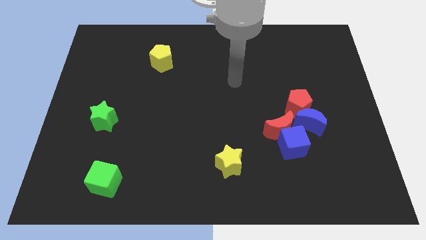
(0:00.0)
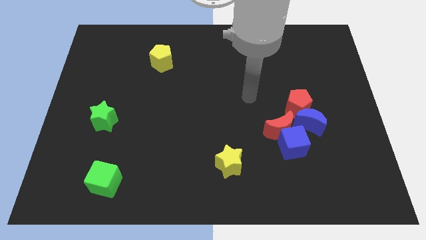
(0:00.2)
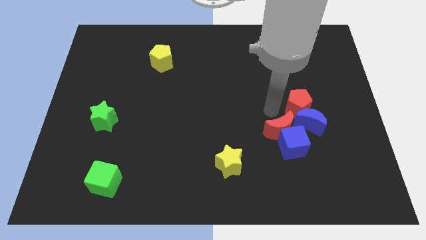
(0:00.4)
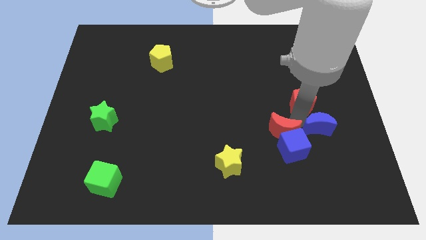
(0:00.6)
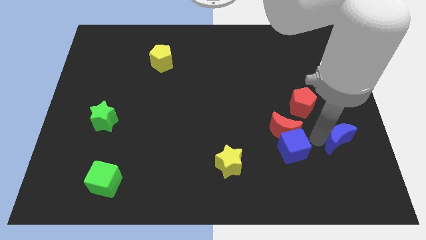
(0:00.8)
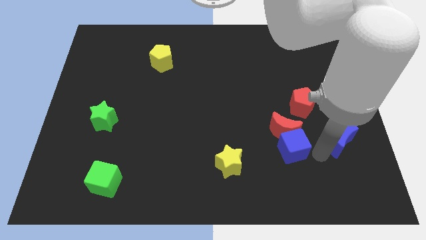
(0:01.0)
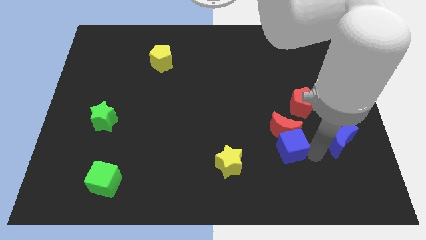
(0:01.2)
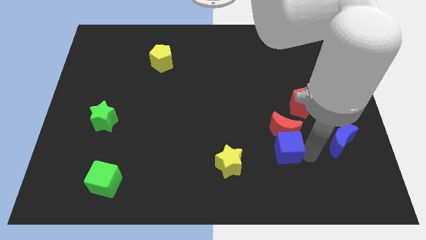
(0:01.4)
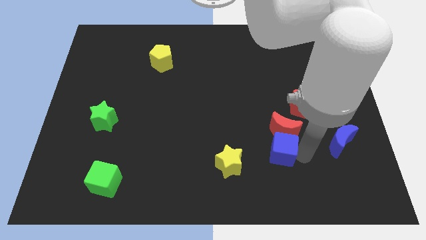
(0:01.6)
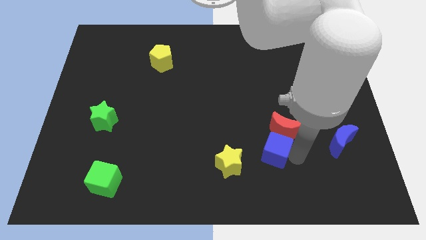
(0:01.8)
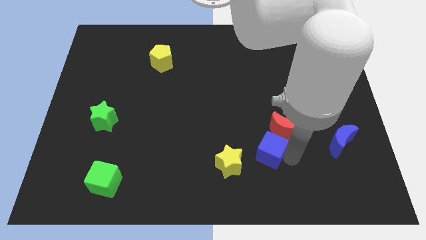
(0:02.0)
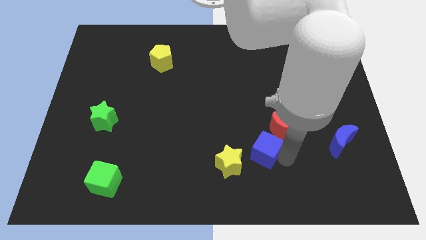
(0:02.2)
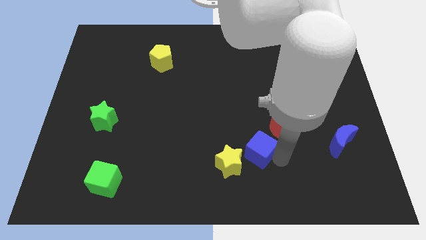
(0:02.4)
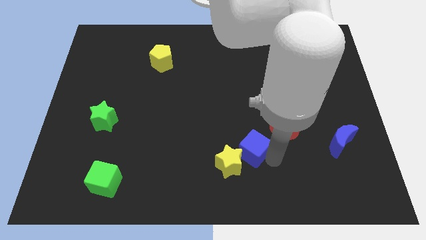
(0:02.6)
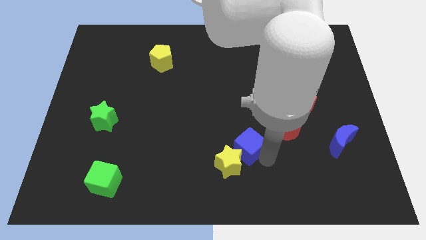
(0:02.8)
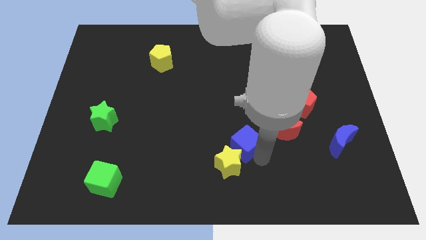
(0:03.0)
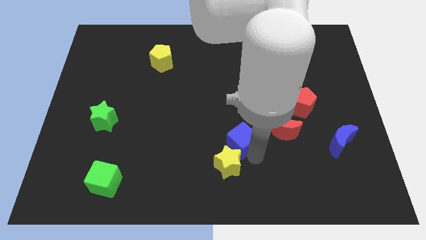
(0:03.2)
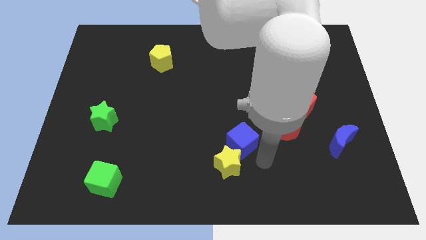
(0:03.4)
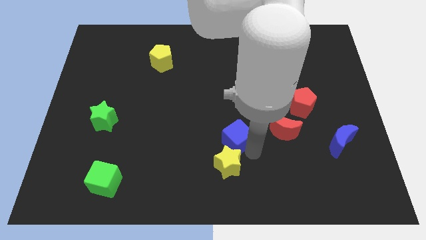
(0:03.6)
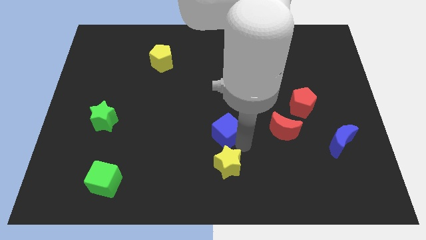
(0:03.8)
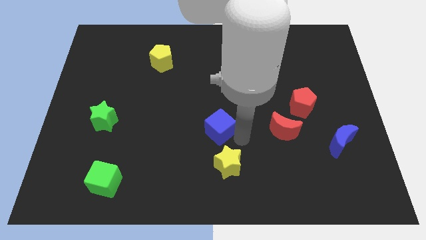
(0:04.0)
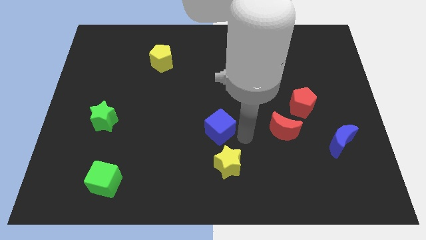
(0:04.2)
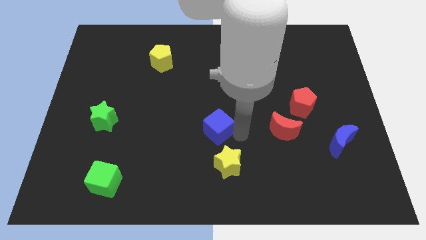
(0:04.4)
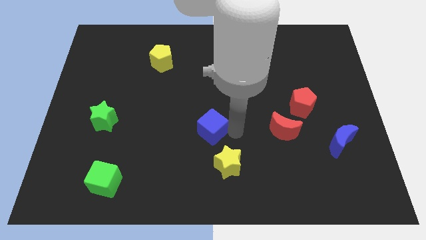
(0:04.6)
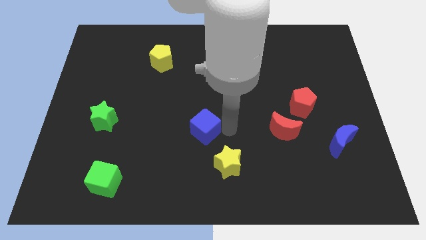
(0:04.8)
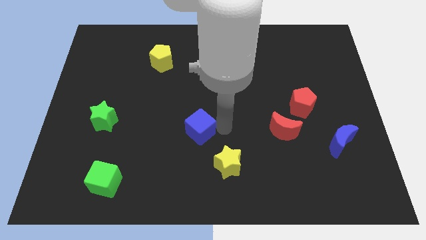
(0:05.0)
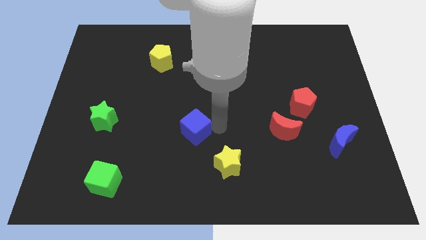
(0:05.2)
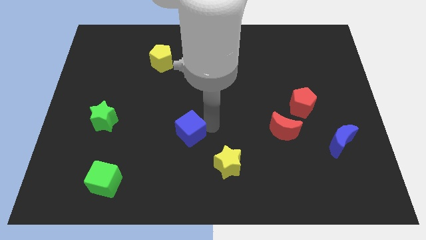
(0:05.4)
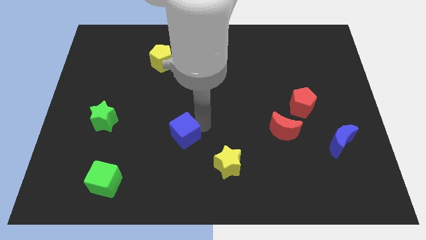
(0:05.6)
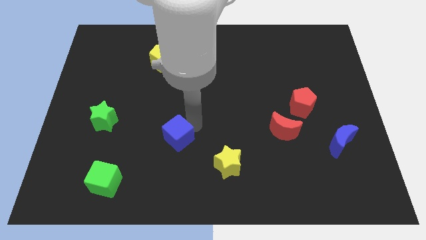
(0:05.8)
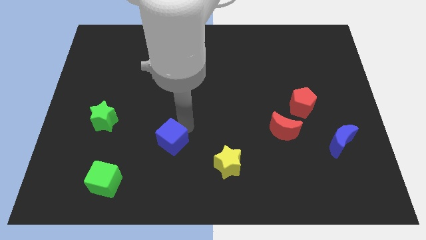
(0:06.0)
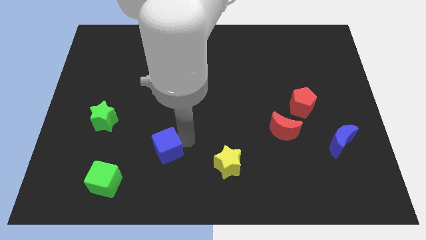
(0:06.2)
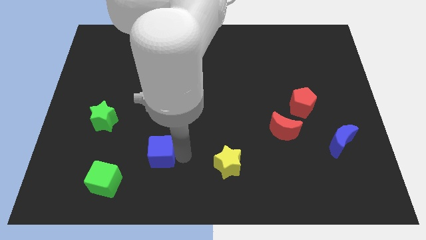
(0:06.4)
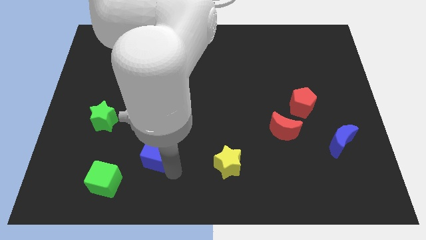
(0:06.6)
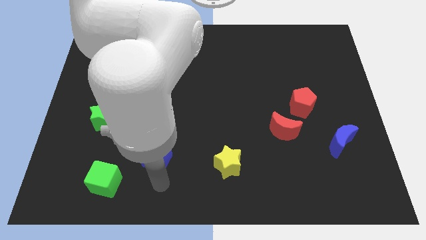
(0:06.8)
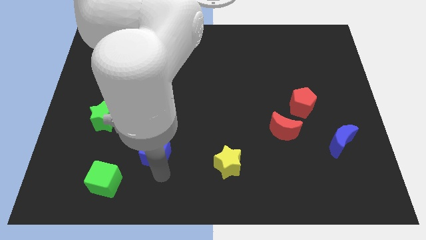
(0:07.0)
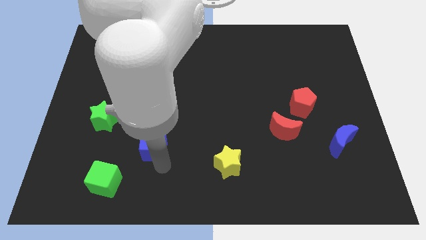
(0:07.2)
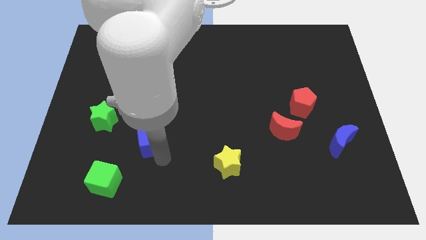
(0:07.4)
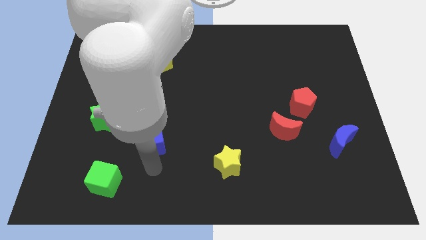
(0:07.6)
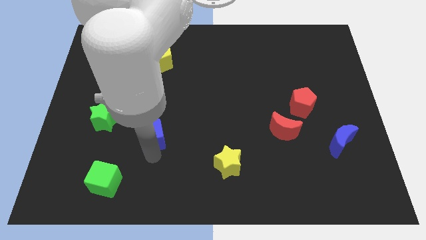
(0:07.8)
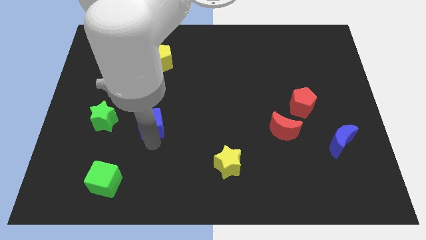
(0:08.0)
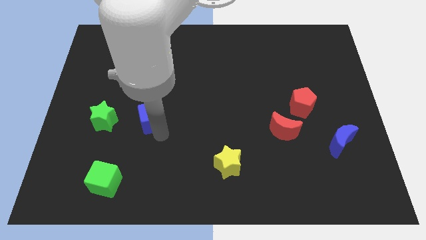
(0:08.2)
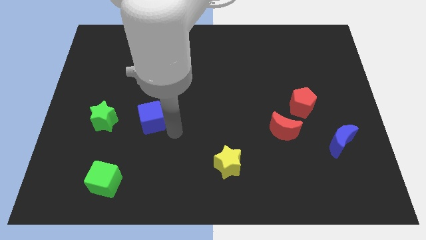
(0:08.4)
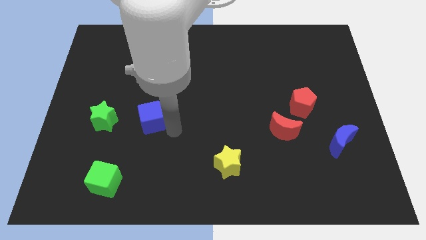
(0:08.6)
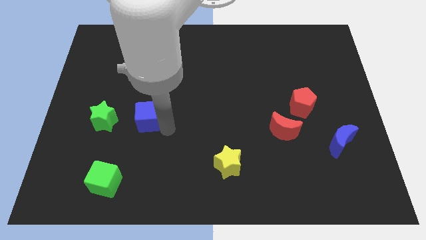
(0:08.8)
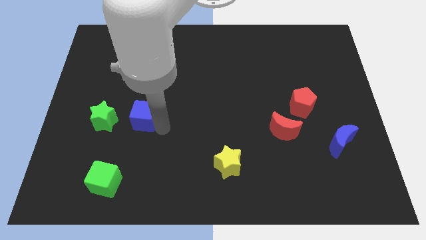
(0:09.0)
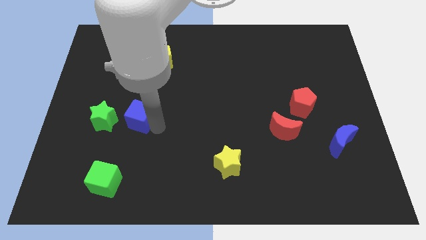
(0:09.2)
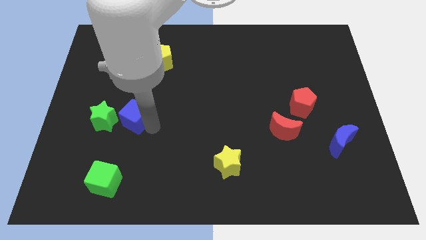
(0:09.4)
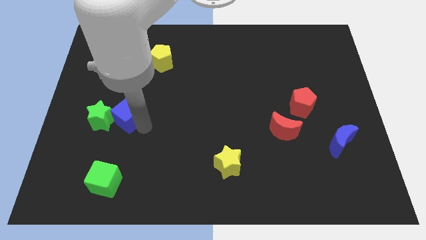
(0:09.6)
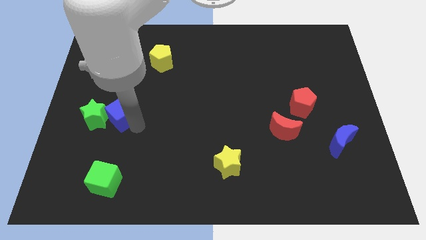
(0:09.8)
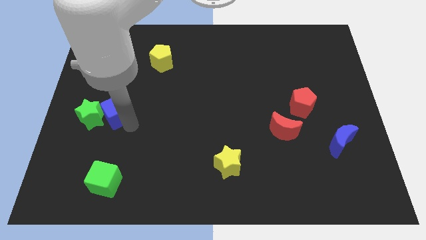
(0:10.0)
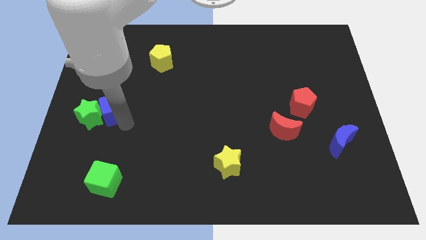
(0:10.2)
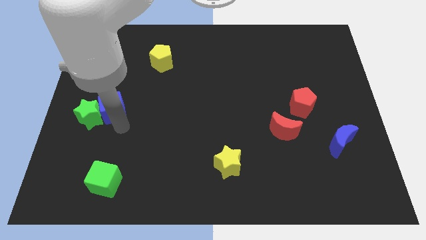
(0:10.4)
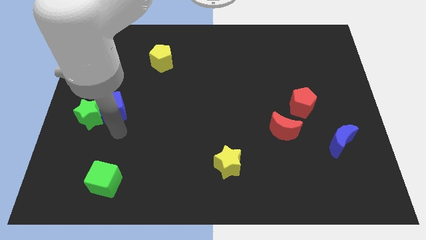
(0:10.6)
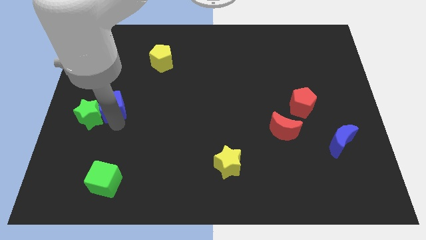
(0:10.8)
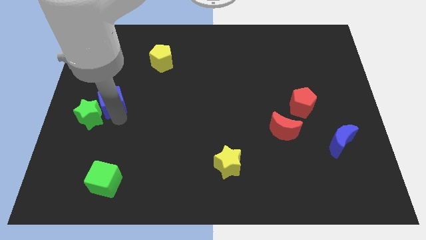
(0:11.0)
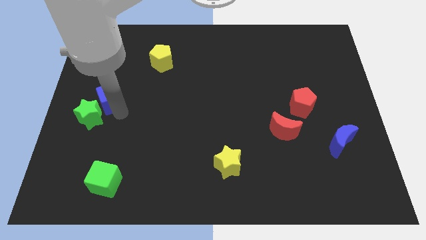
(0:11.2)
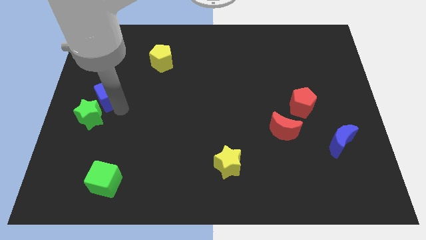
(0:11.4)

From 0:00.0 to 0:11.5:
slide the blue cube to the center left

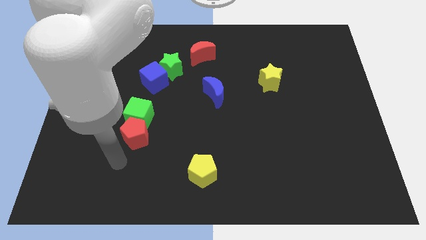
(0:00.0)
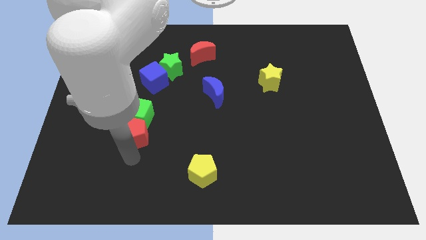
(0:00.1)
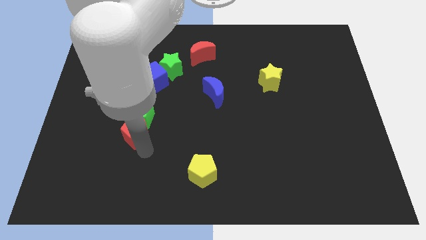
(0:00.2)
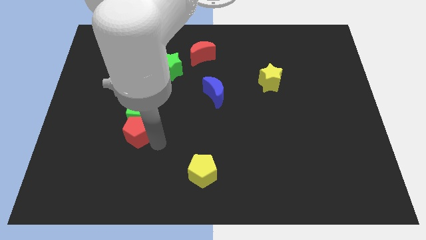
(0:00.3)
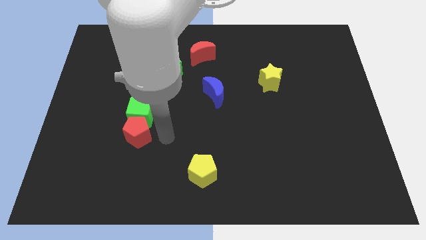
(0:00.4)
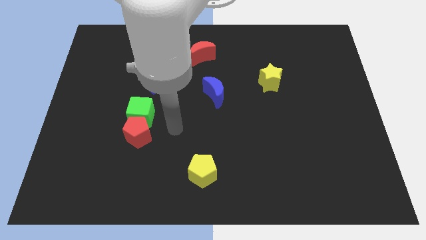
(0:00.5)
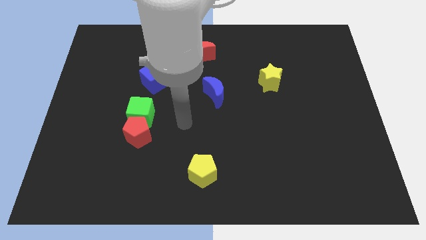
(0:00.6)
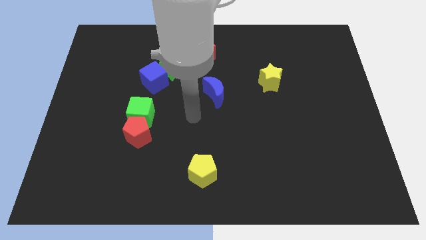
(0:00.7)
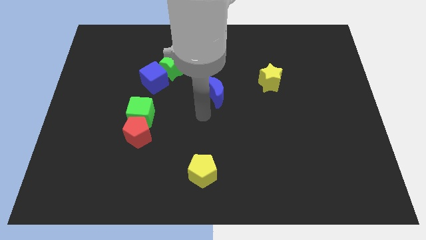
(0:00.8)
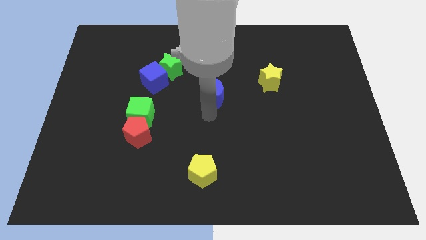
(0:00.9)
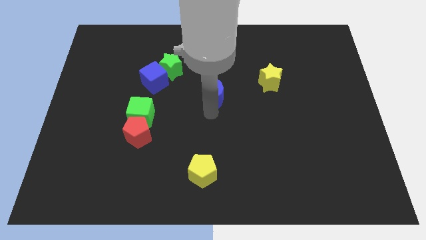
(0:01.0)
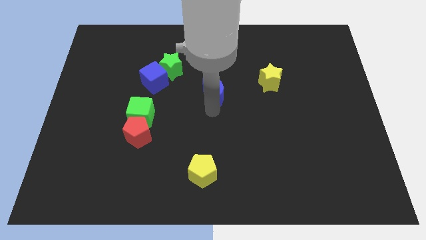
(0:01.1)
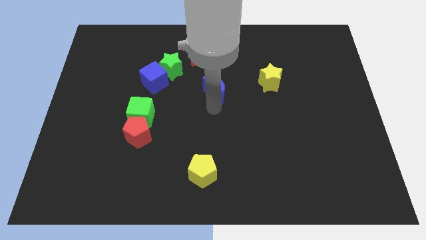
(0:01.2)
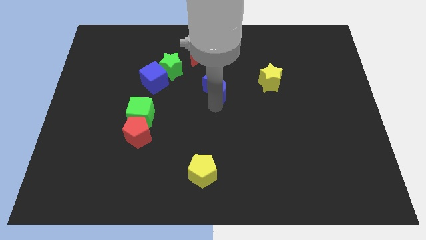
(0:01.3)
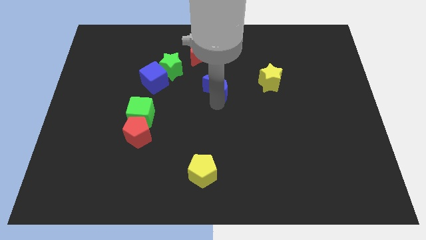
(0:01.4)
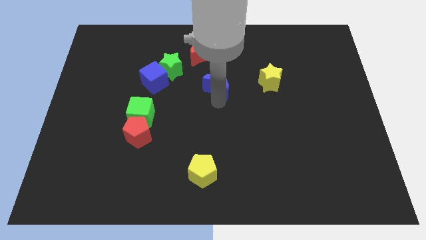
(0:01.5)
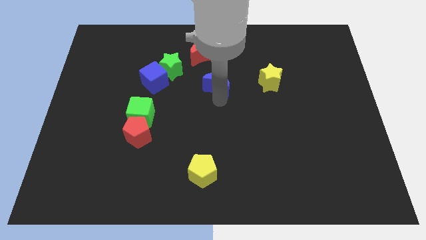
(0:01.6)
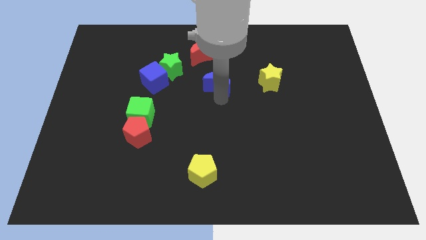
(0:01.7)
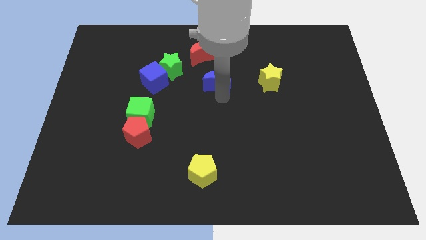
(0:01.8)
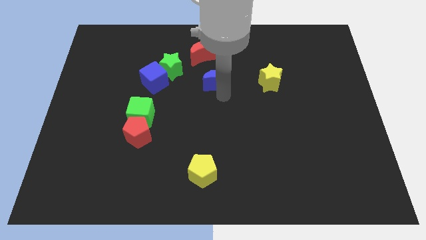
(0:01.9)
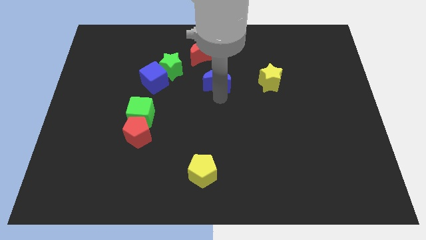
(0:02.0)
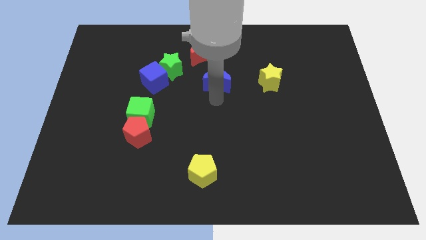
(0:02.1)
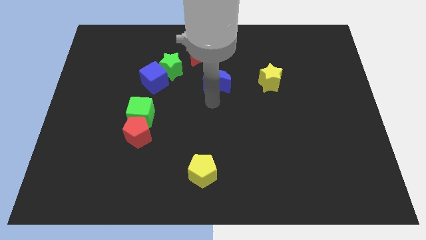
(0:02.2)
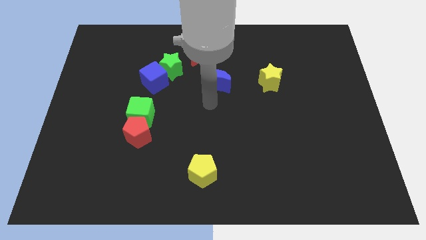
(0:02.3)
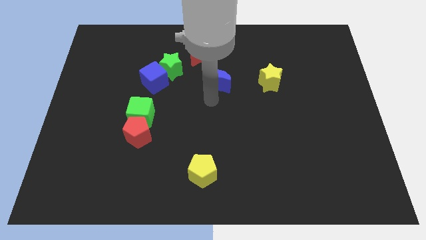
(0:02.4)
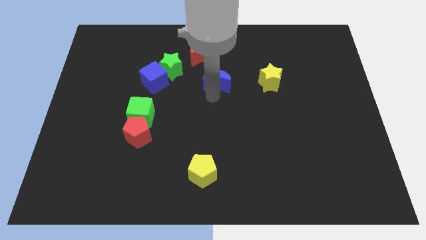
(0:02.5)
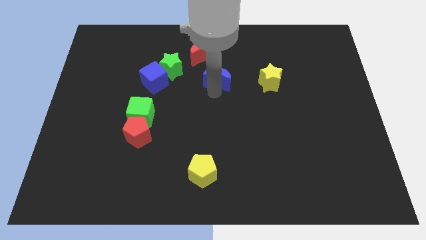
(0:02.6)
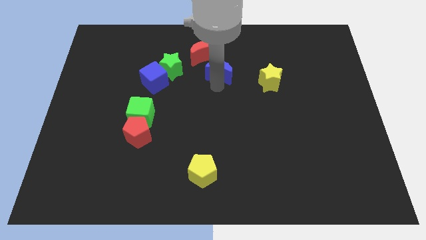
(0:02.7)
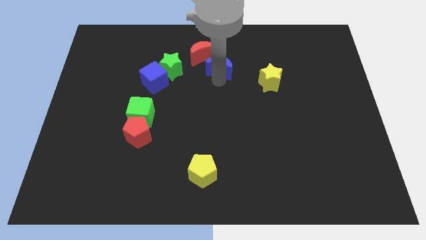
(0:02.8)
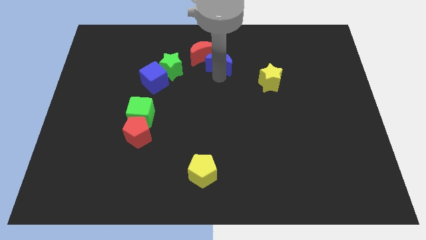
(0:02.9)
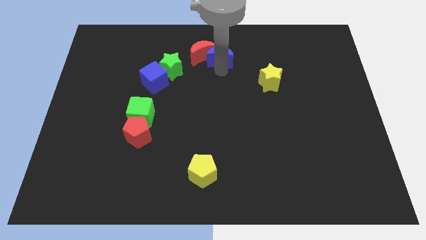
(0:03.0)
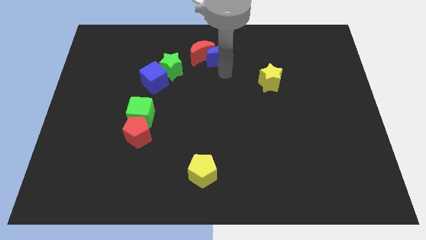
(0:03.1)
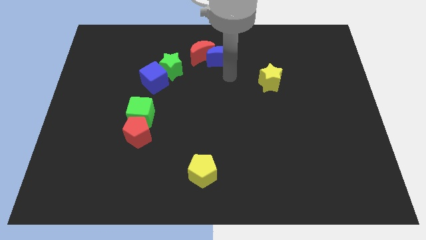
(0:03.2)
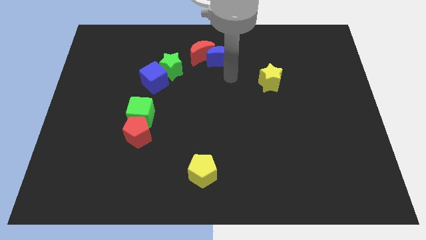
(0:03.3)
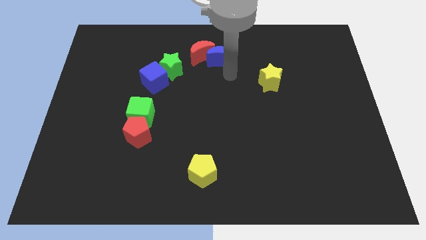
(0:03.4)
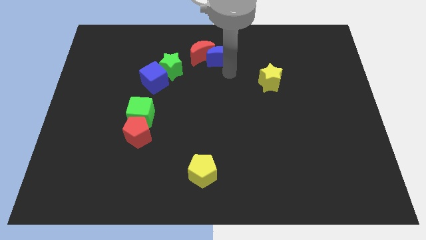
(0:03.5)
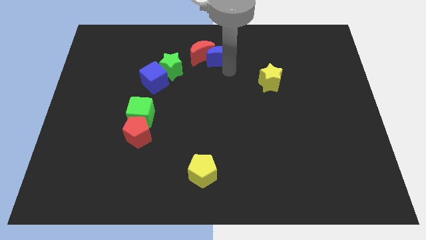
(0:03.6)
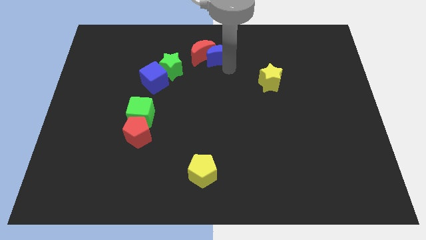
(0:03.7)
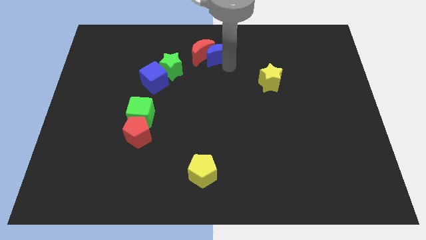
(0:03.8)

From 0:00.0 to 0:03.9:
put the blue moon to the towards your base
